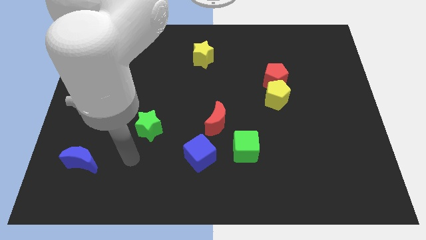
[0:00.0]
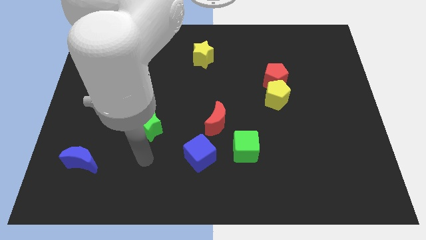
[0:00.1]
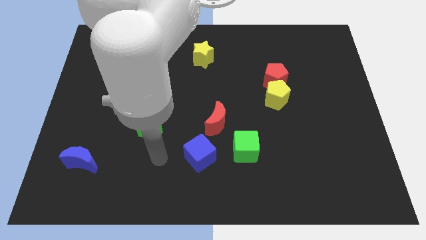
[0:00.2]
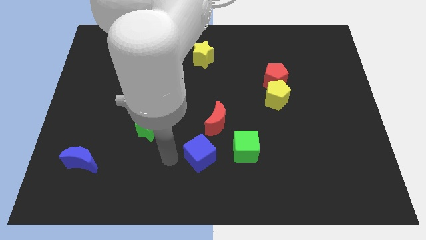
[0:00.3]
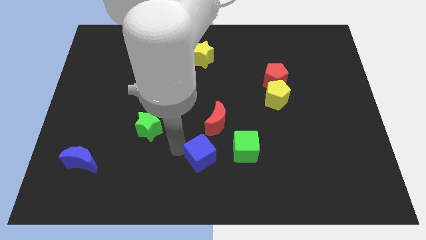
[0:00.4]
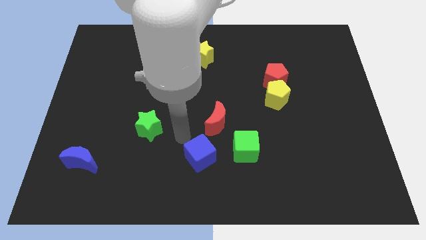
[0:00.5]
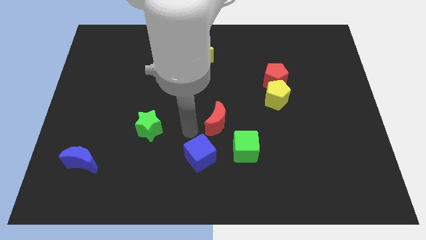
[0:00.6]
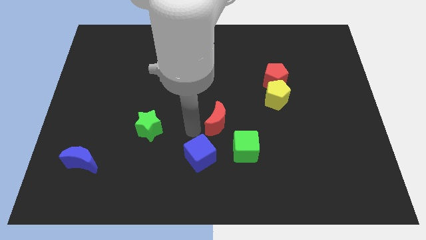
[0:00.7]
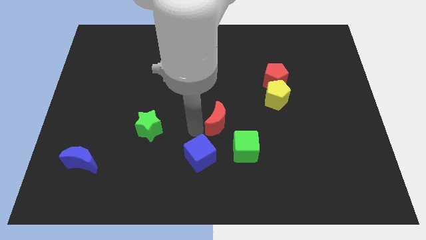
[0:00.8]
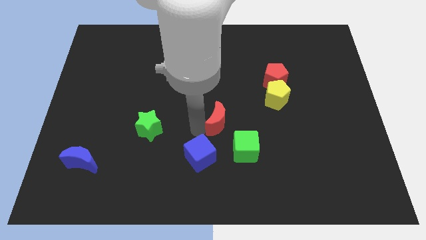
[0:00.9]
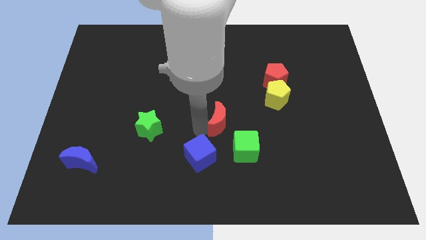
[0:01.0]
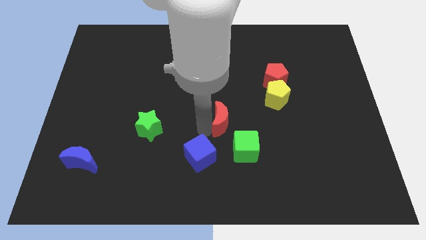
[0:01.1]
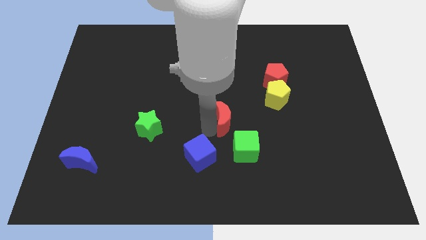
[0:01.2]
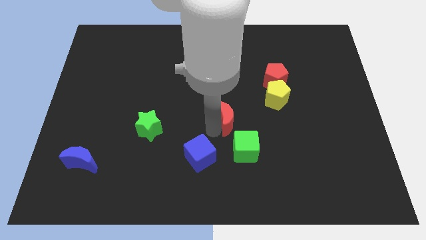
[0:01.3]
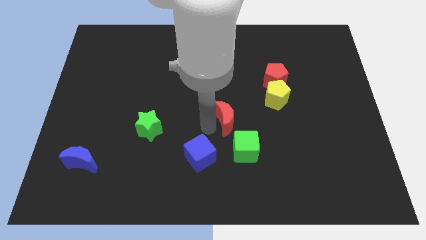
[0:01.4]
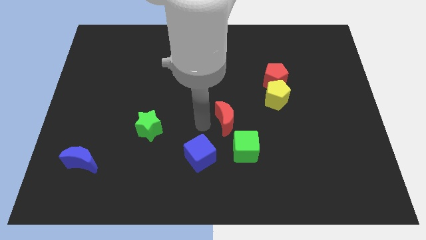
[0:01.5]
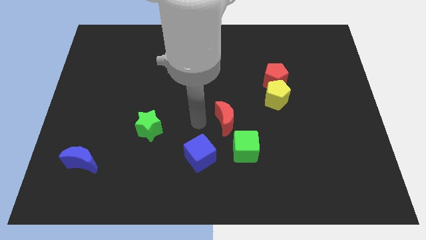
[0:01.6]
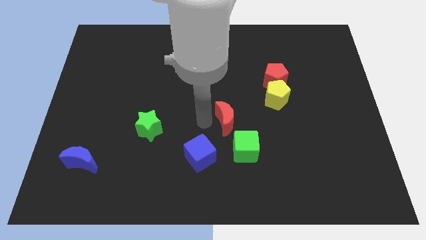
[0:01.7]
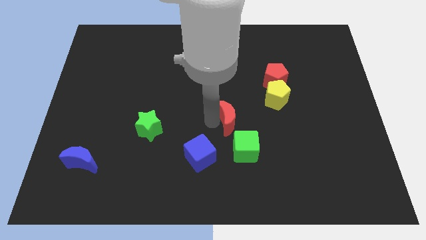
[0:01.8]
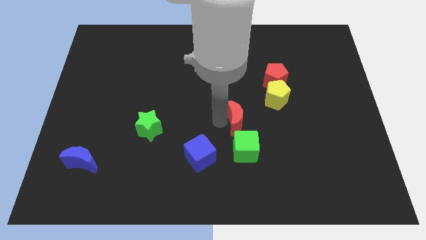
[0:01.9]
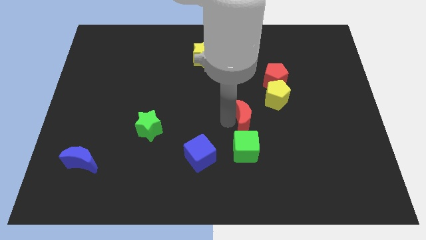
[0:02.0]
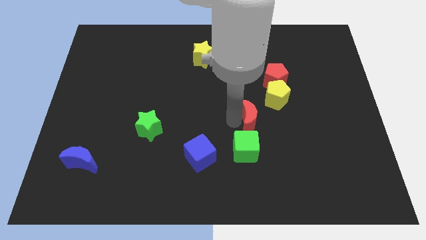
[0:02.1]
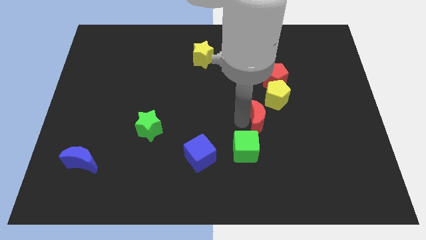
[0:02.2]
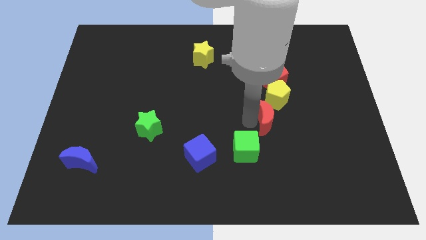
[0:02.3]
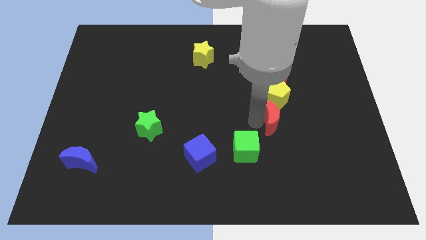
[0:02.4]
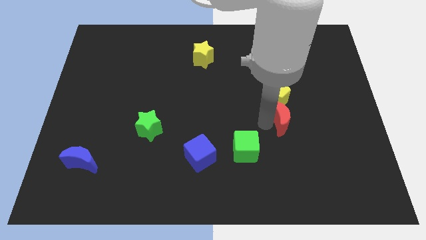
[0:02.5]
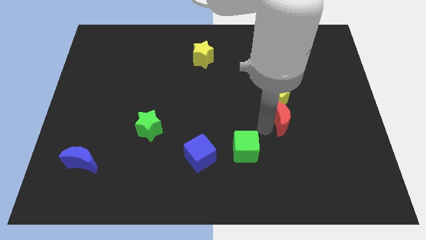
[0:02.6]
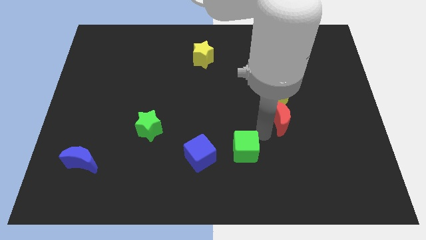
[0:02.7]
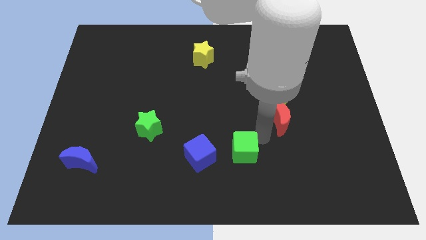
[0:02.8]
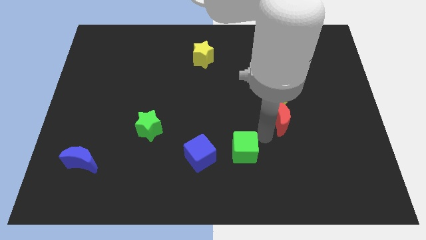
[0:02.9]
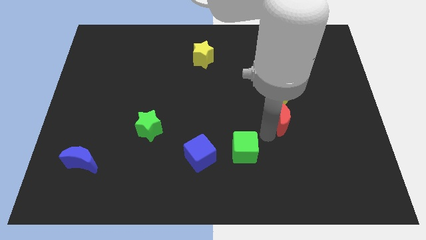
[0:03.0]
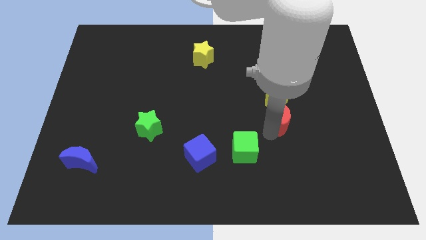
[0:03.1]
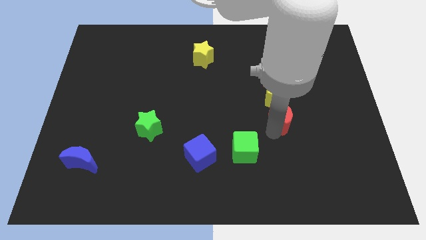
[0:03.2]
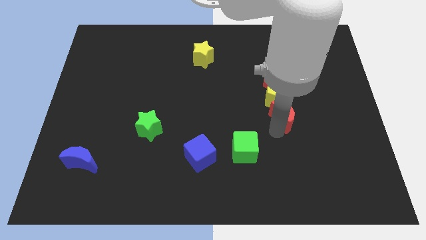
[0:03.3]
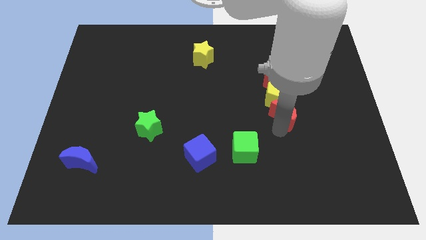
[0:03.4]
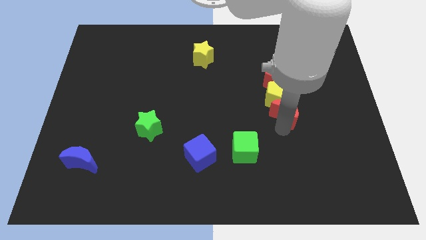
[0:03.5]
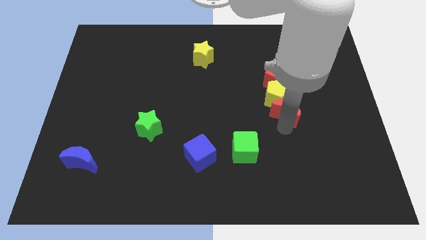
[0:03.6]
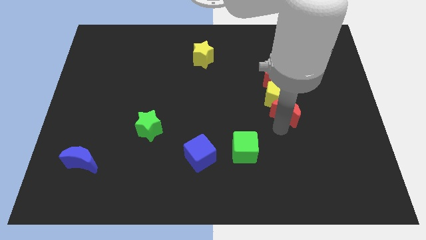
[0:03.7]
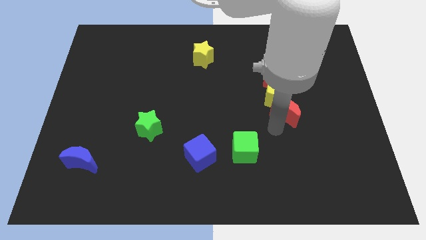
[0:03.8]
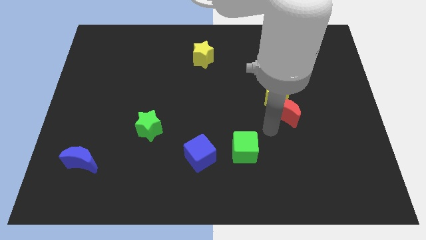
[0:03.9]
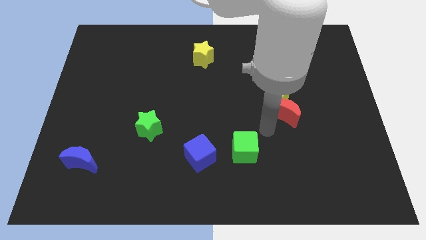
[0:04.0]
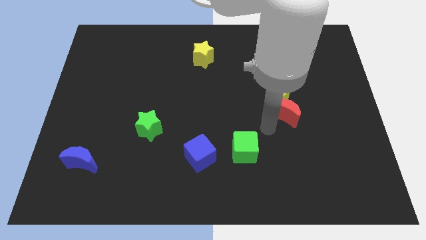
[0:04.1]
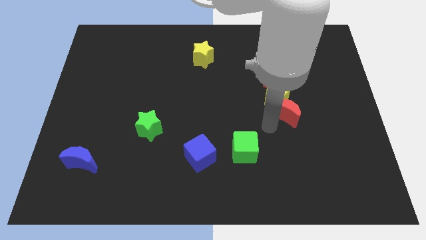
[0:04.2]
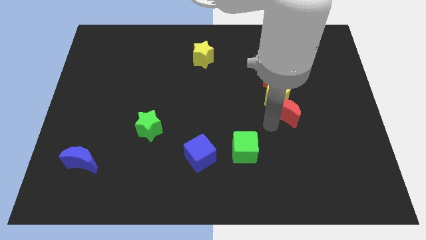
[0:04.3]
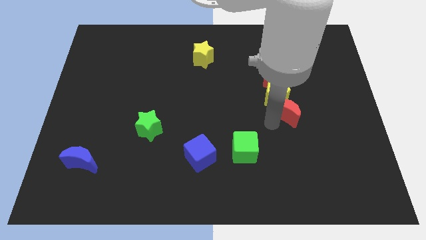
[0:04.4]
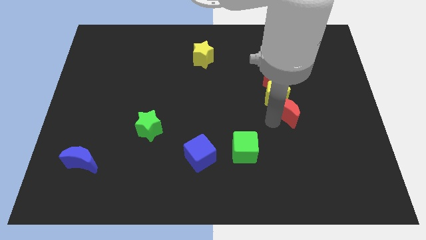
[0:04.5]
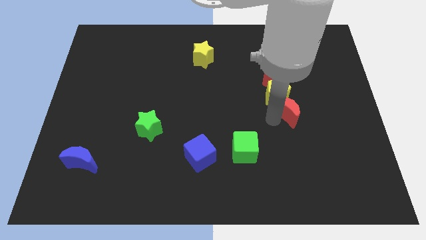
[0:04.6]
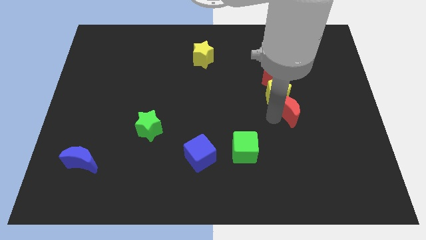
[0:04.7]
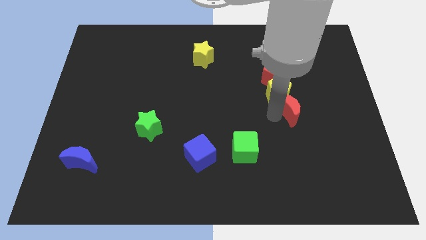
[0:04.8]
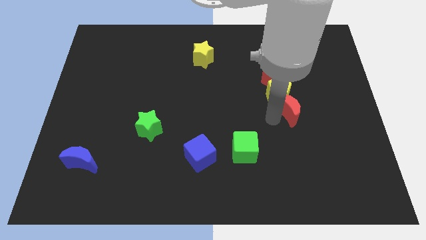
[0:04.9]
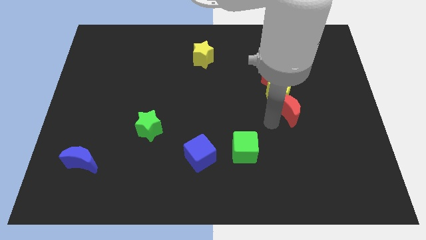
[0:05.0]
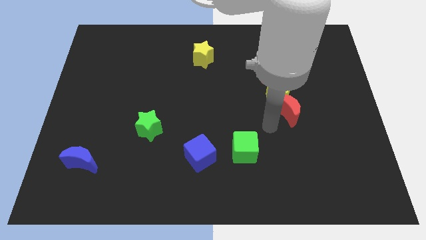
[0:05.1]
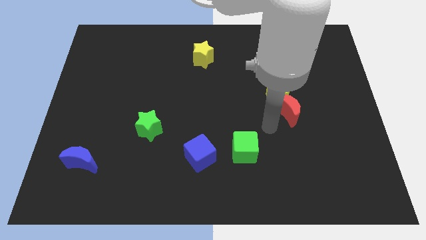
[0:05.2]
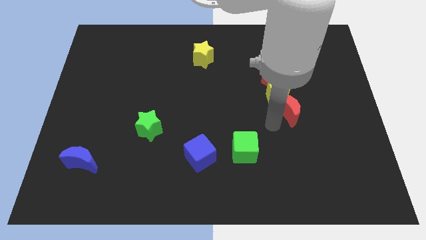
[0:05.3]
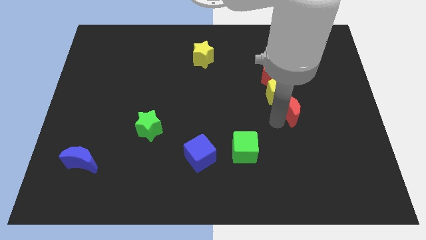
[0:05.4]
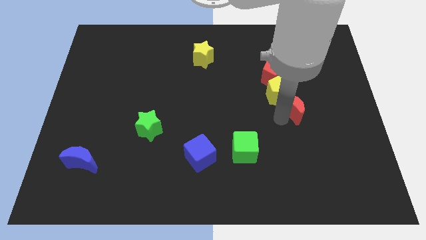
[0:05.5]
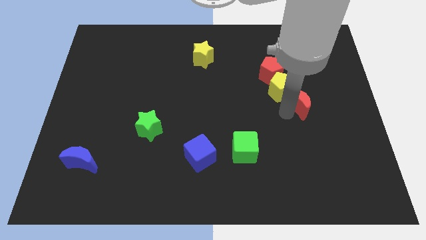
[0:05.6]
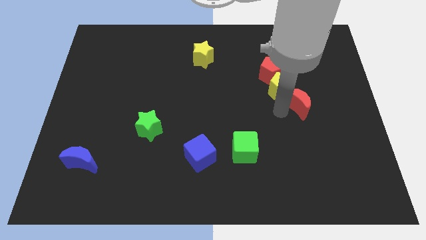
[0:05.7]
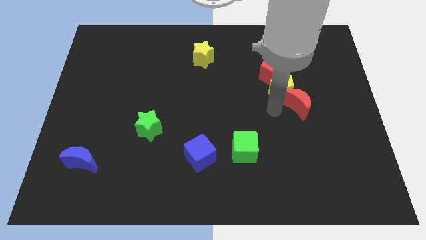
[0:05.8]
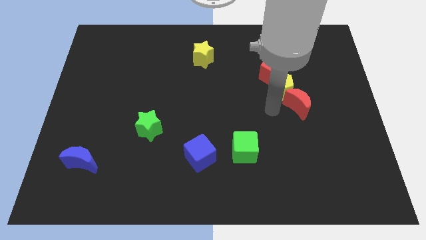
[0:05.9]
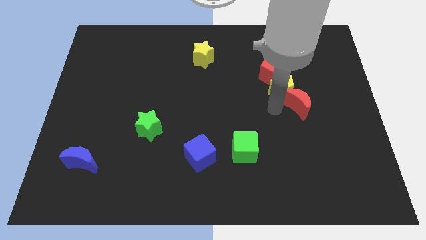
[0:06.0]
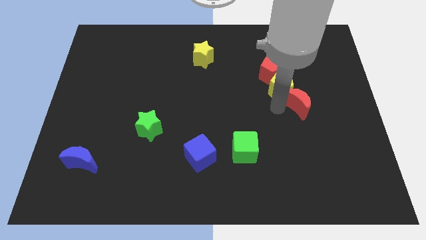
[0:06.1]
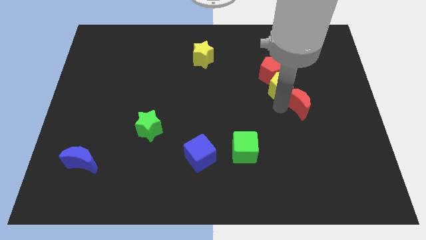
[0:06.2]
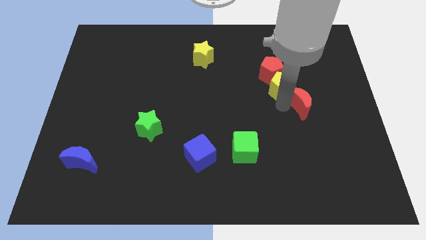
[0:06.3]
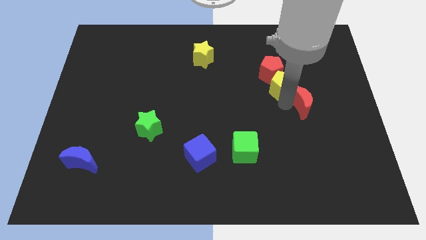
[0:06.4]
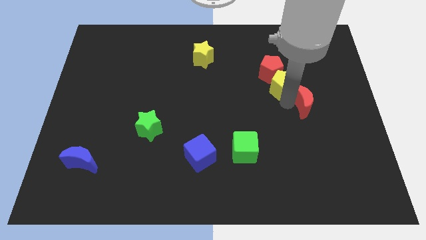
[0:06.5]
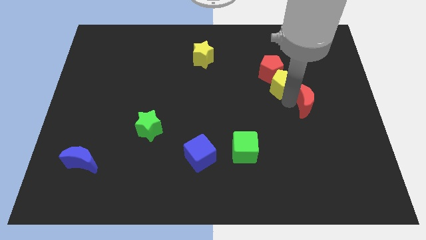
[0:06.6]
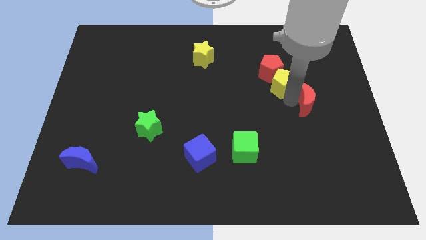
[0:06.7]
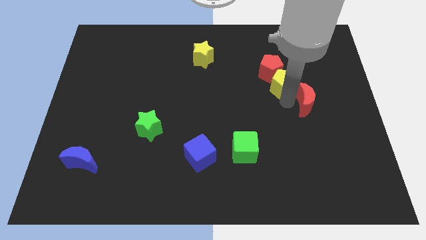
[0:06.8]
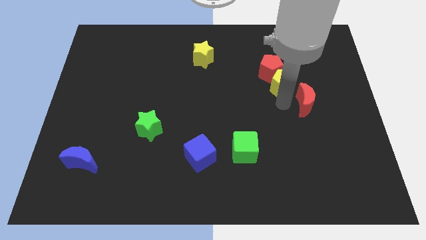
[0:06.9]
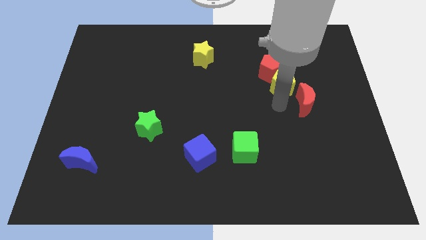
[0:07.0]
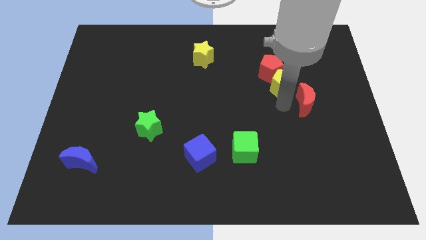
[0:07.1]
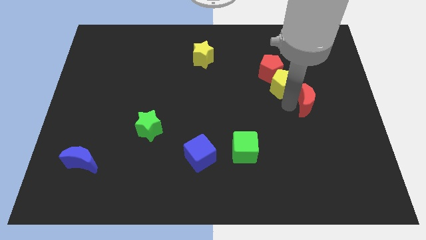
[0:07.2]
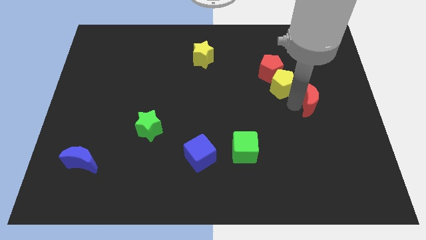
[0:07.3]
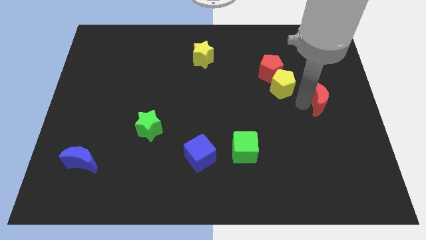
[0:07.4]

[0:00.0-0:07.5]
move the red moon to the right side
